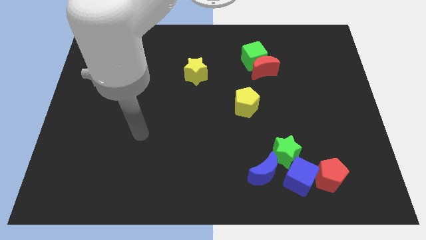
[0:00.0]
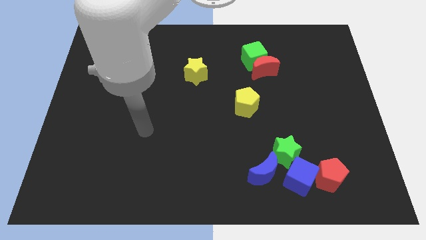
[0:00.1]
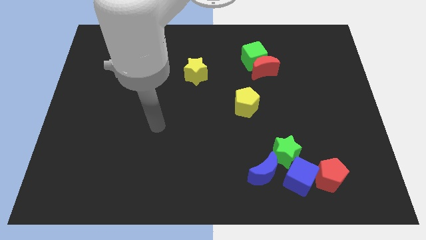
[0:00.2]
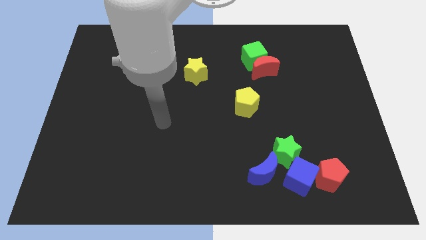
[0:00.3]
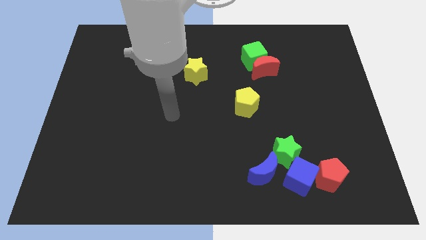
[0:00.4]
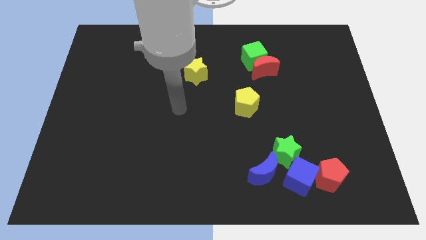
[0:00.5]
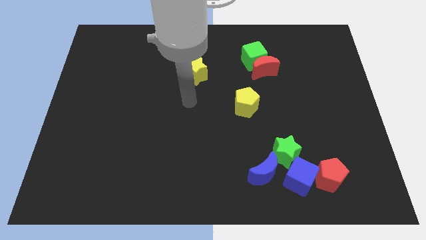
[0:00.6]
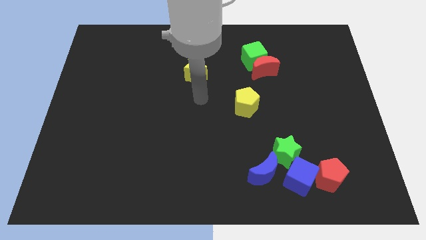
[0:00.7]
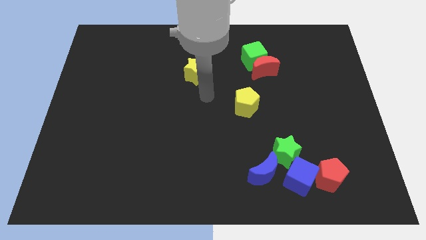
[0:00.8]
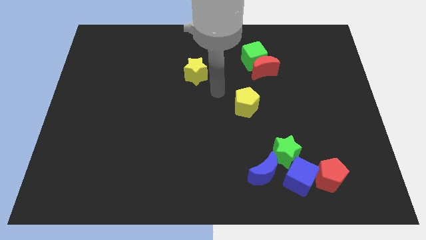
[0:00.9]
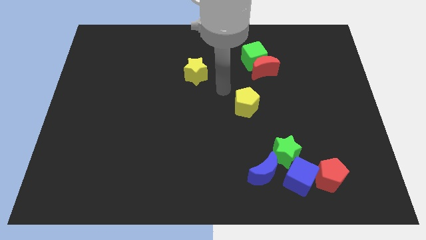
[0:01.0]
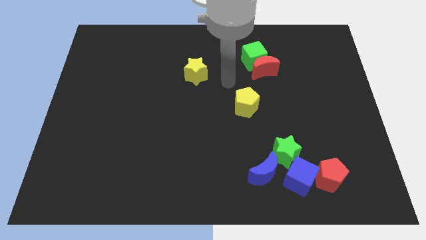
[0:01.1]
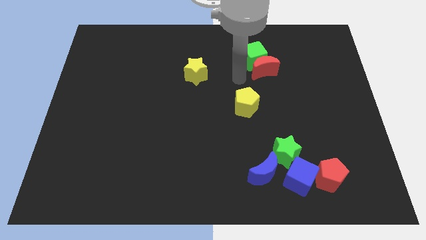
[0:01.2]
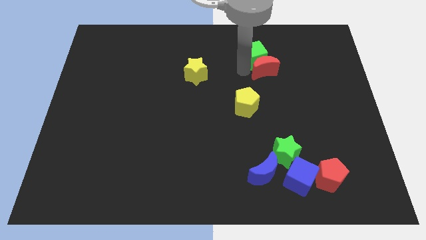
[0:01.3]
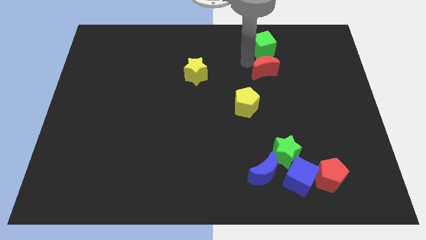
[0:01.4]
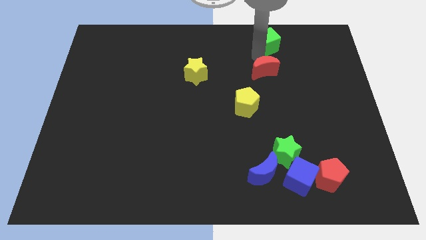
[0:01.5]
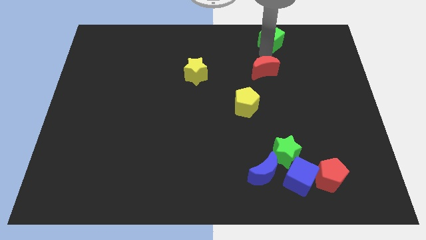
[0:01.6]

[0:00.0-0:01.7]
pull the red moon apart from the green cube

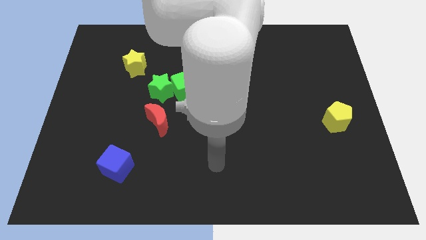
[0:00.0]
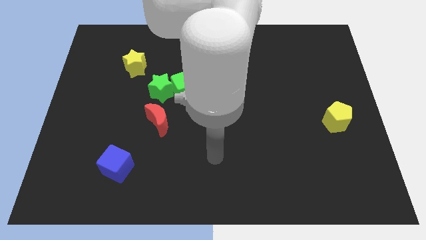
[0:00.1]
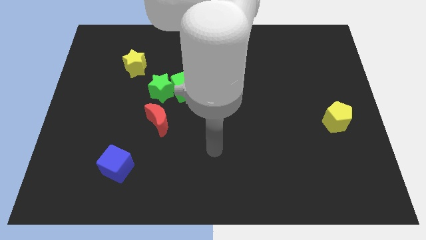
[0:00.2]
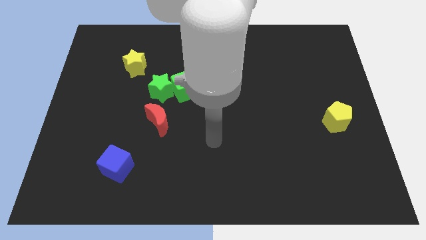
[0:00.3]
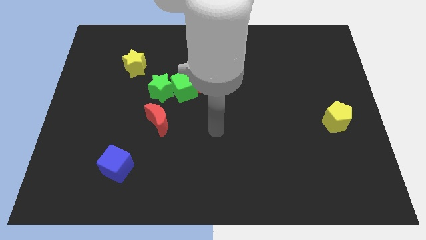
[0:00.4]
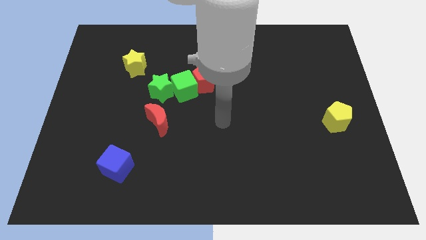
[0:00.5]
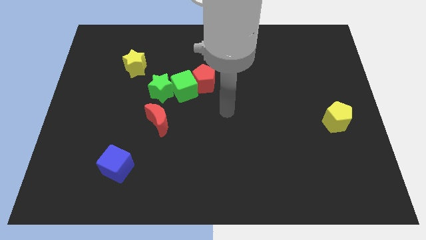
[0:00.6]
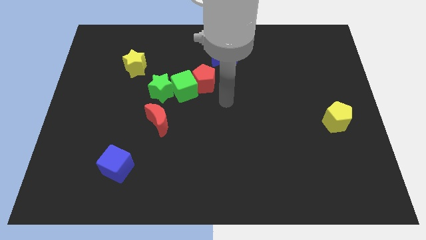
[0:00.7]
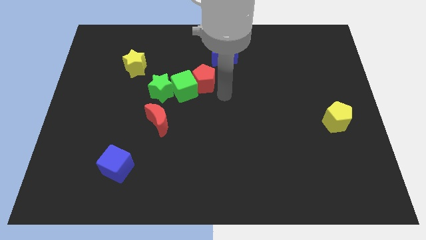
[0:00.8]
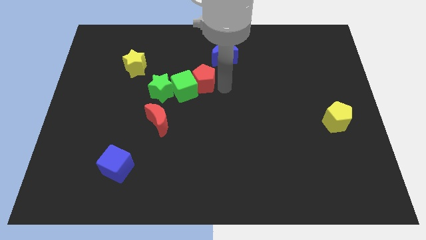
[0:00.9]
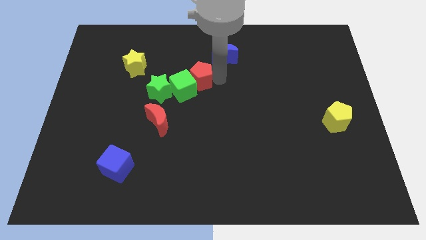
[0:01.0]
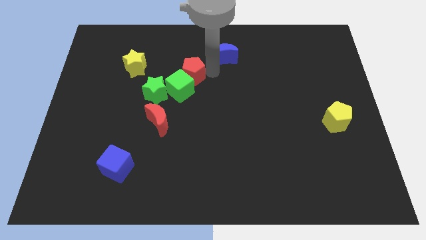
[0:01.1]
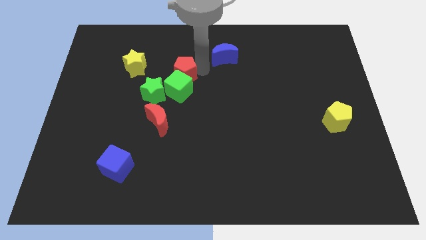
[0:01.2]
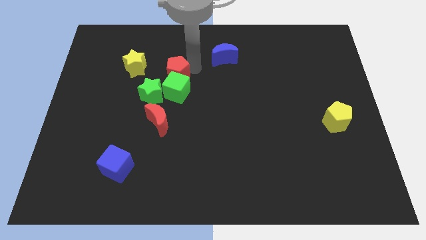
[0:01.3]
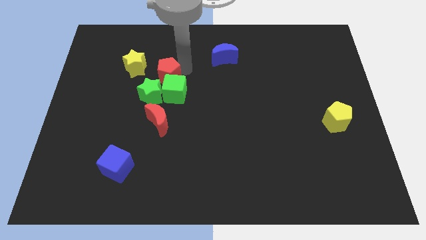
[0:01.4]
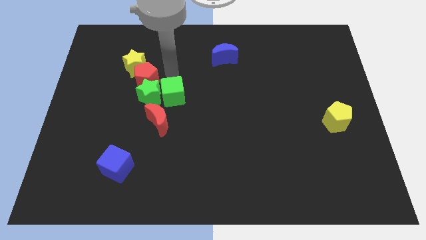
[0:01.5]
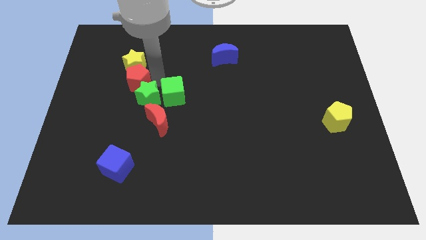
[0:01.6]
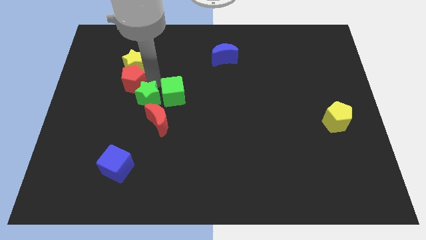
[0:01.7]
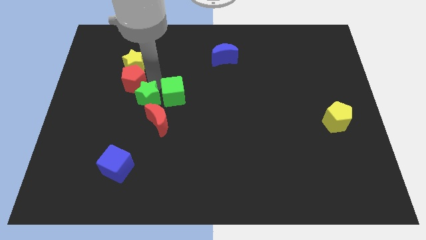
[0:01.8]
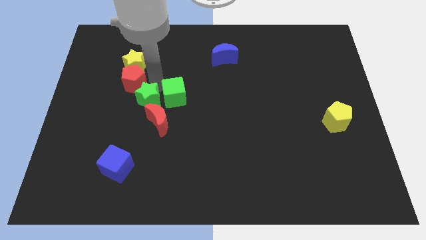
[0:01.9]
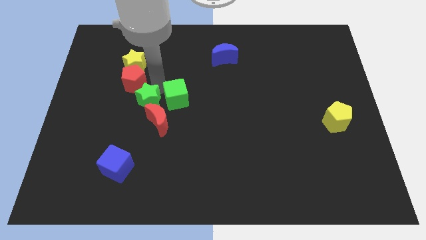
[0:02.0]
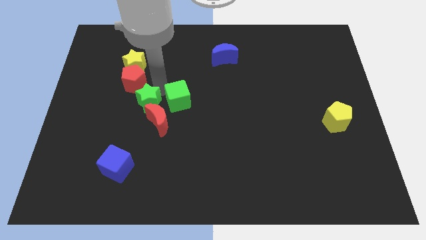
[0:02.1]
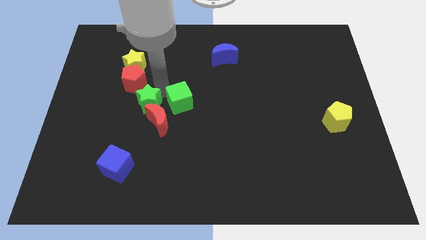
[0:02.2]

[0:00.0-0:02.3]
move the green cube away from the red pentagon and green star

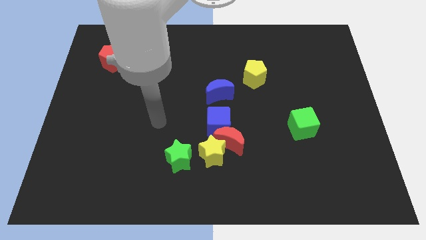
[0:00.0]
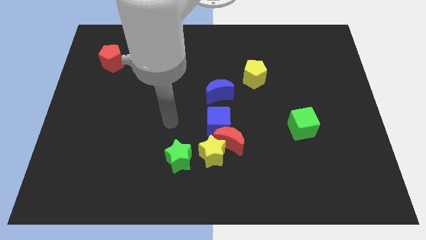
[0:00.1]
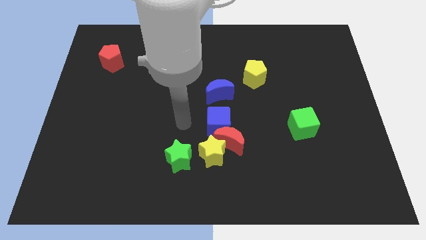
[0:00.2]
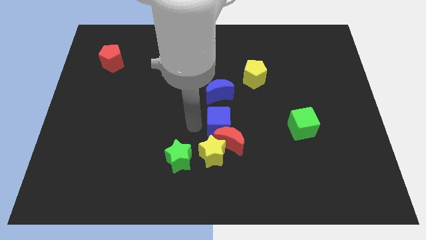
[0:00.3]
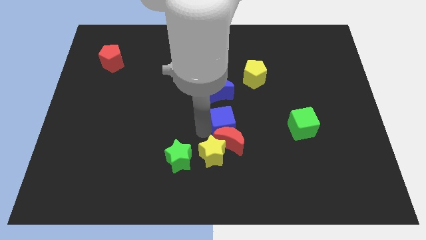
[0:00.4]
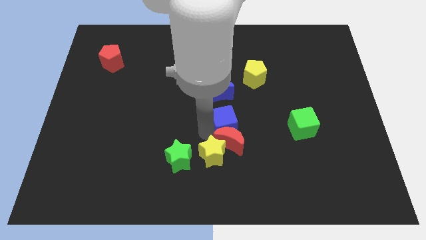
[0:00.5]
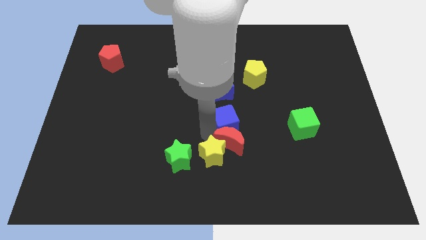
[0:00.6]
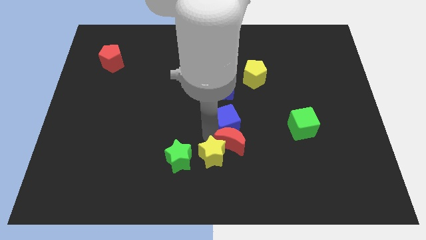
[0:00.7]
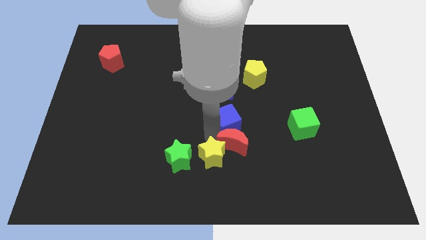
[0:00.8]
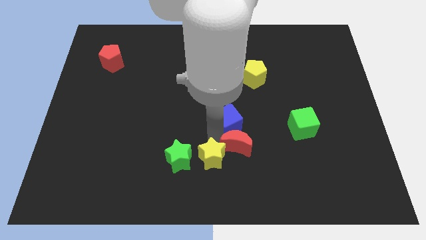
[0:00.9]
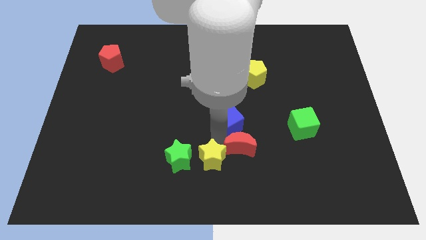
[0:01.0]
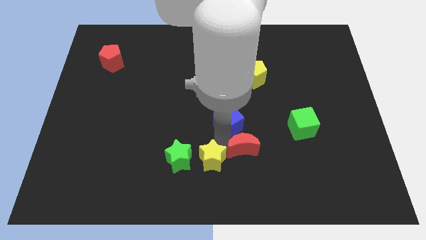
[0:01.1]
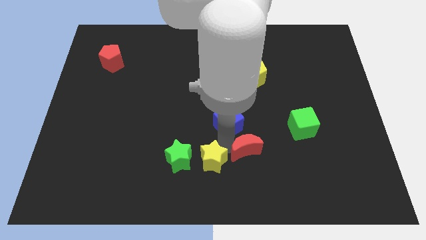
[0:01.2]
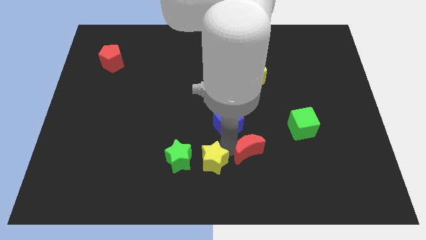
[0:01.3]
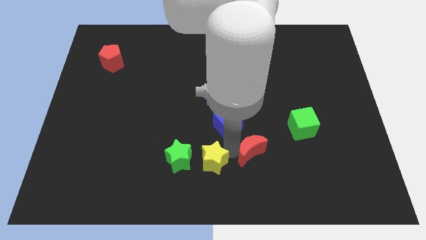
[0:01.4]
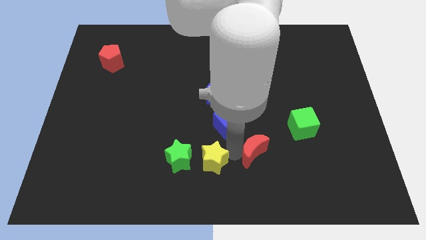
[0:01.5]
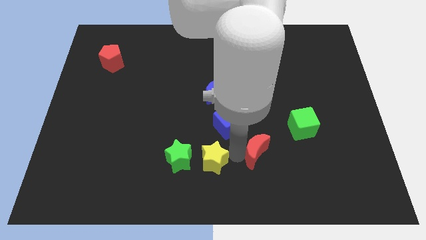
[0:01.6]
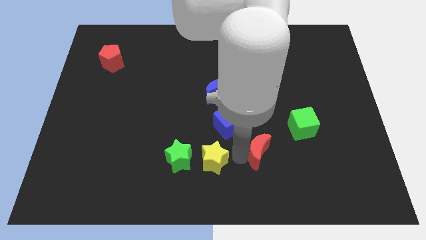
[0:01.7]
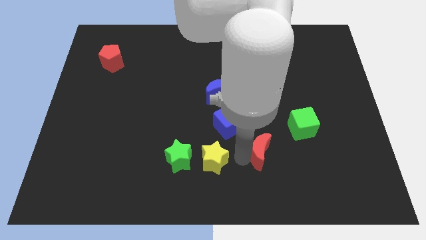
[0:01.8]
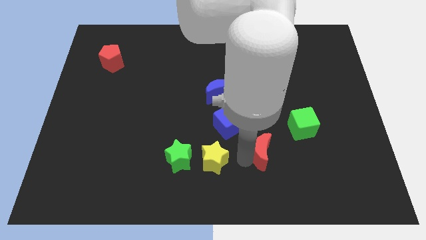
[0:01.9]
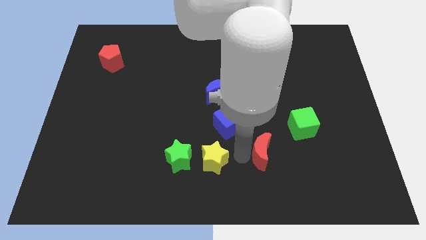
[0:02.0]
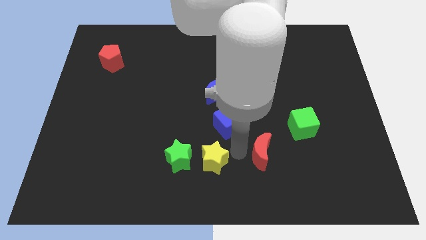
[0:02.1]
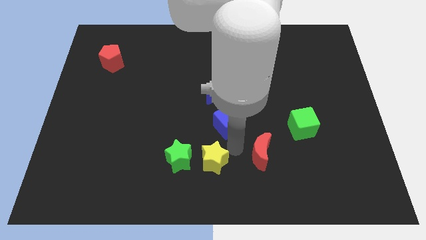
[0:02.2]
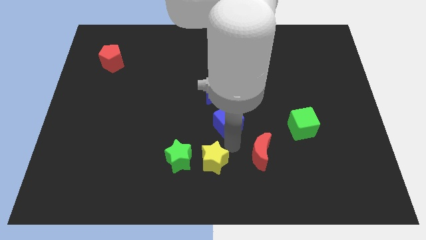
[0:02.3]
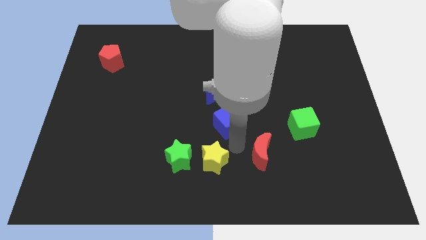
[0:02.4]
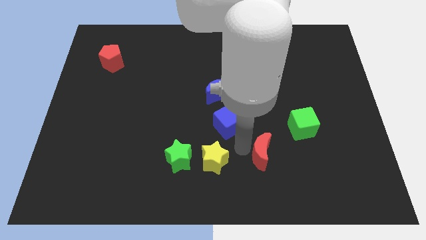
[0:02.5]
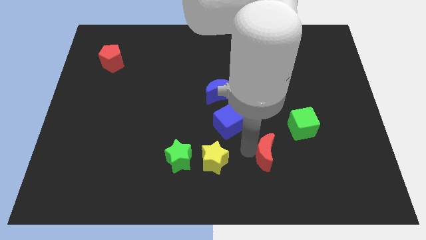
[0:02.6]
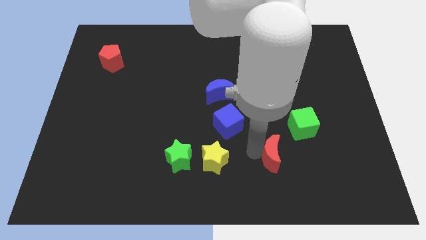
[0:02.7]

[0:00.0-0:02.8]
move the red moon away from the yellow star and blue cube

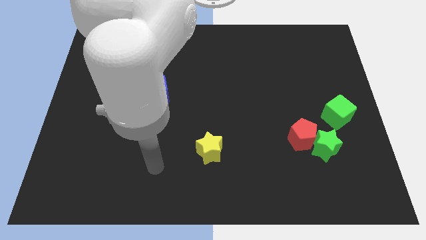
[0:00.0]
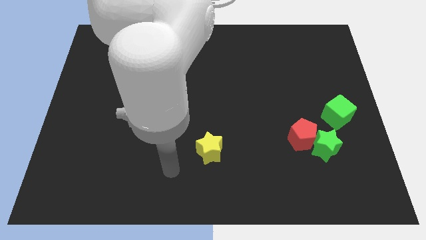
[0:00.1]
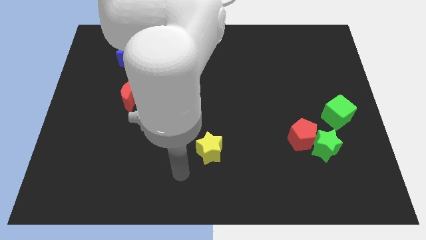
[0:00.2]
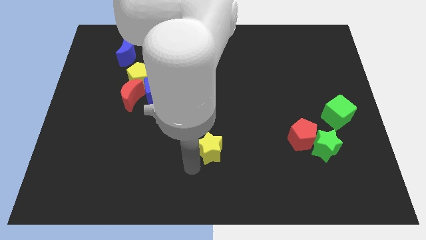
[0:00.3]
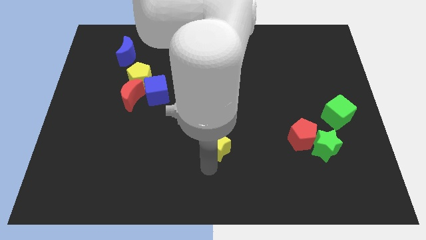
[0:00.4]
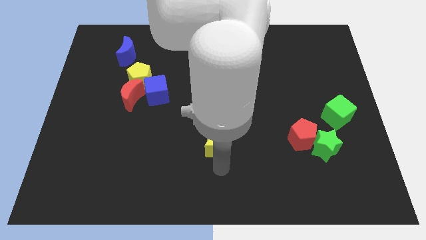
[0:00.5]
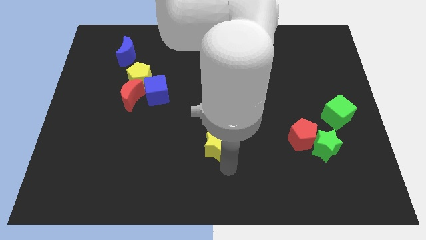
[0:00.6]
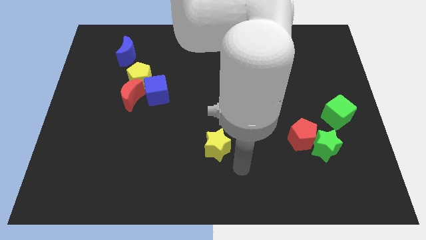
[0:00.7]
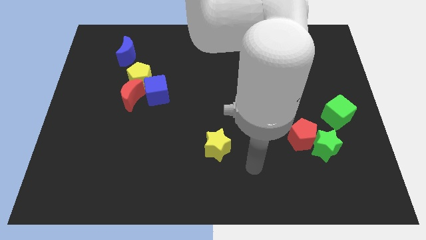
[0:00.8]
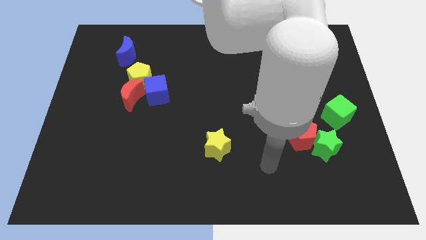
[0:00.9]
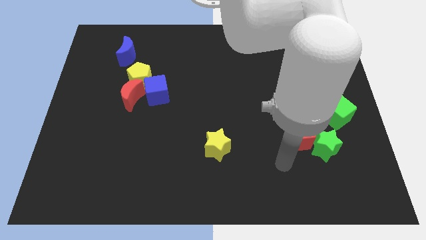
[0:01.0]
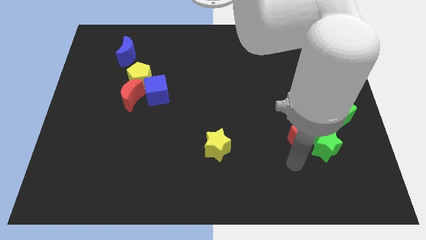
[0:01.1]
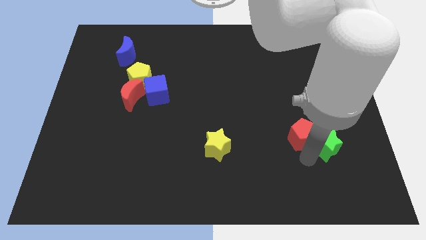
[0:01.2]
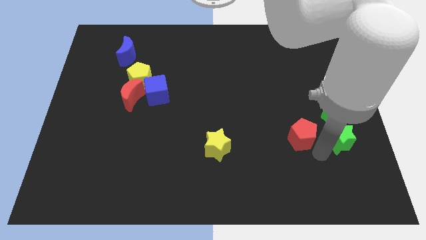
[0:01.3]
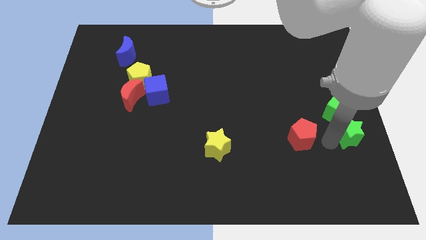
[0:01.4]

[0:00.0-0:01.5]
separate the red pentagon from the green star

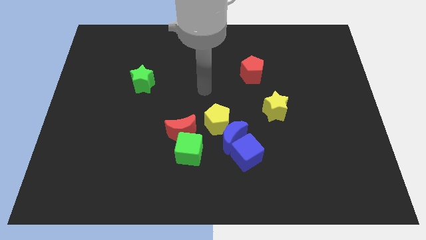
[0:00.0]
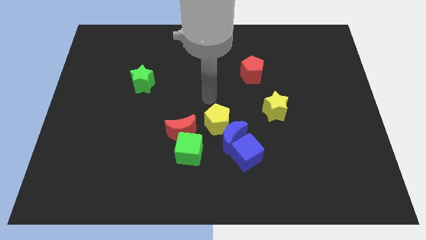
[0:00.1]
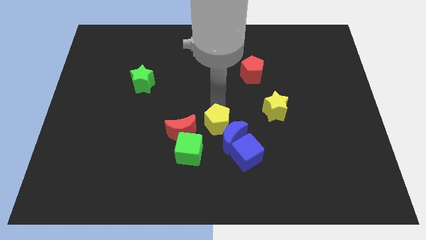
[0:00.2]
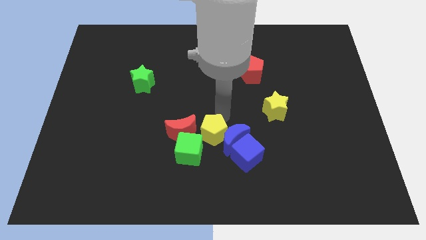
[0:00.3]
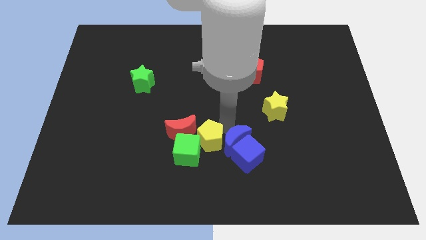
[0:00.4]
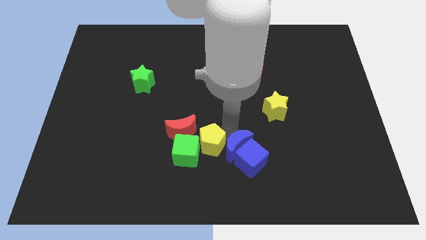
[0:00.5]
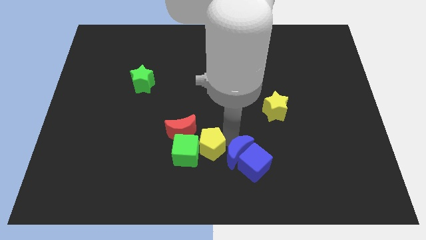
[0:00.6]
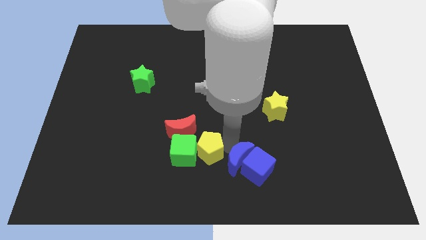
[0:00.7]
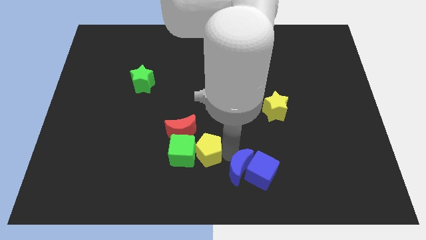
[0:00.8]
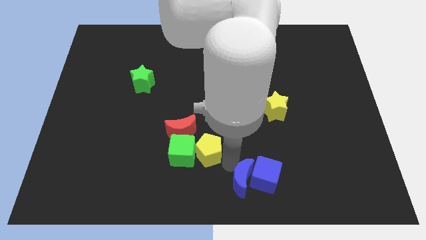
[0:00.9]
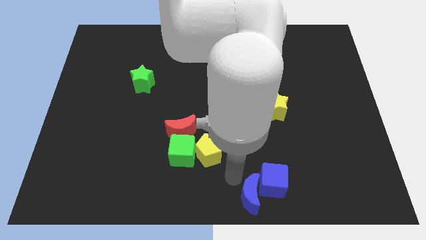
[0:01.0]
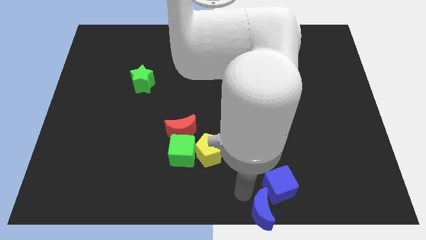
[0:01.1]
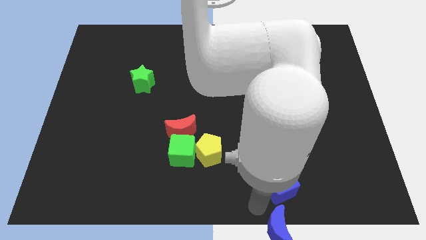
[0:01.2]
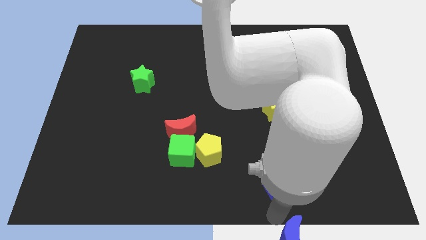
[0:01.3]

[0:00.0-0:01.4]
pull the blue cube apart from the blue moon
